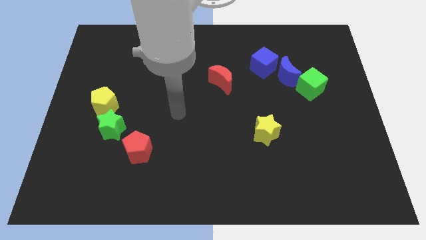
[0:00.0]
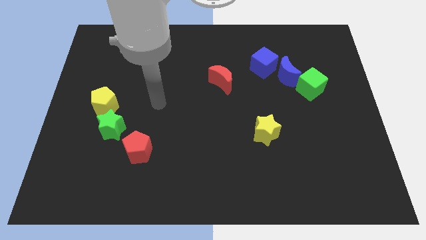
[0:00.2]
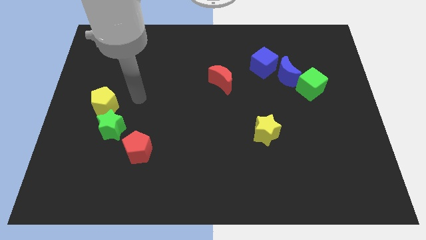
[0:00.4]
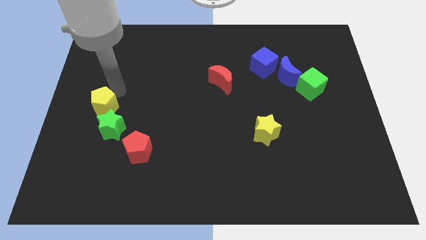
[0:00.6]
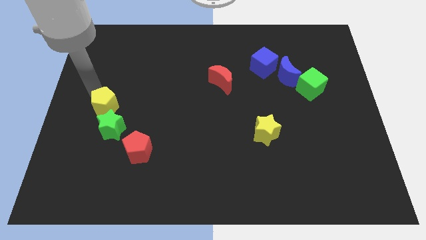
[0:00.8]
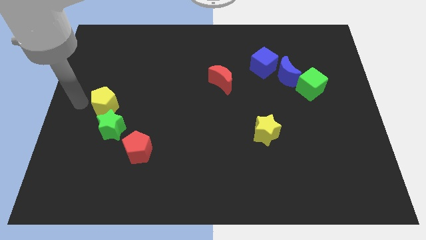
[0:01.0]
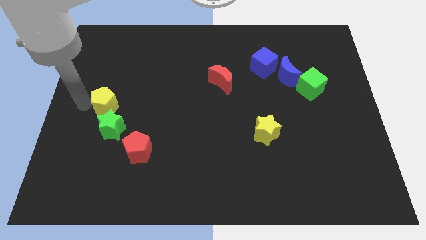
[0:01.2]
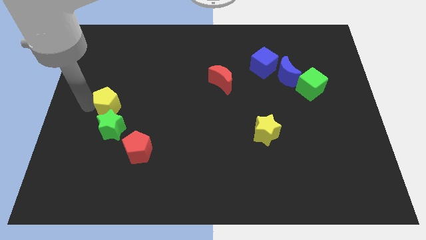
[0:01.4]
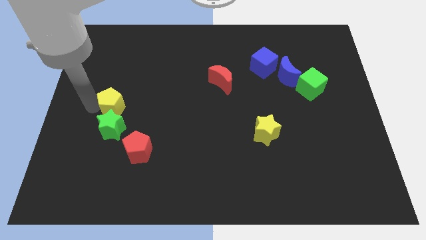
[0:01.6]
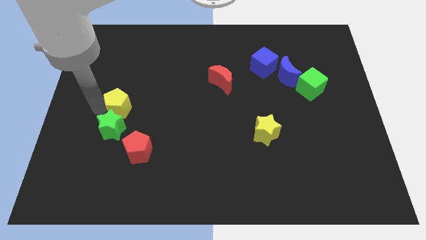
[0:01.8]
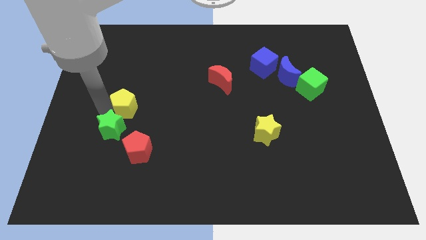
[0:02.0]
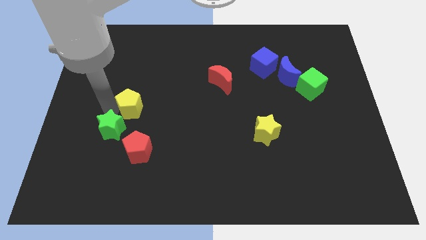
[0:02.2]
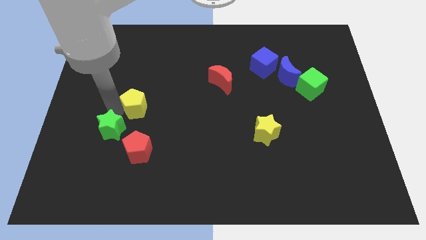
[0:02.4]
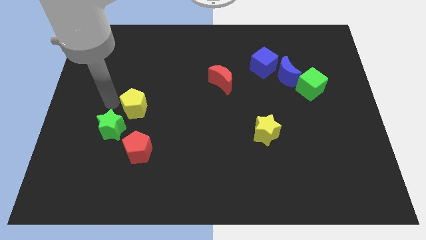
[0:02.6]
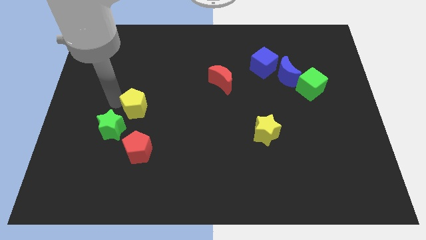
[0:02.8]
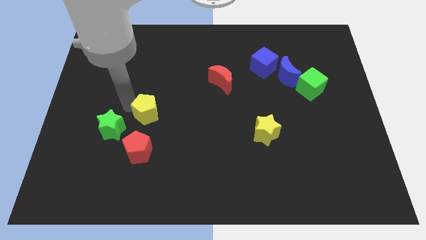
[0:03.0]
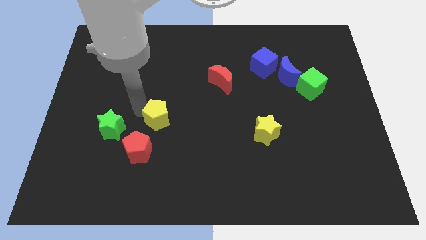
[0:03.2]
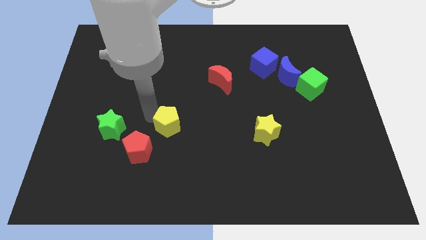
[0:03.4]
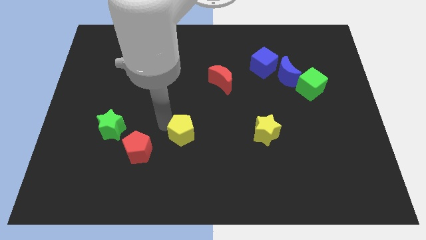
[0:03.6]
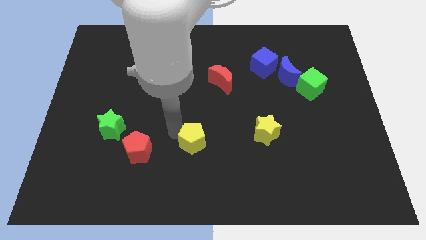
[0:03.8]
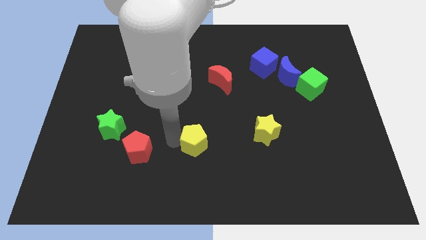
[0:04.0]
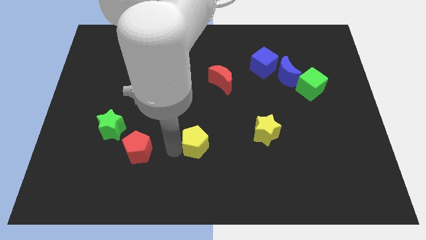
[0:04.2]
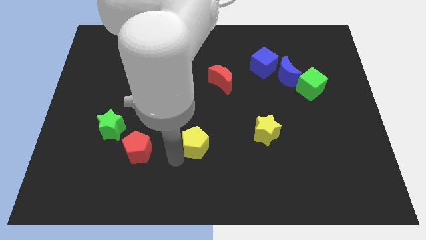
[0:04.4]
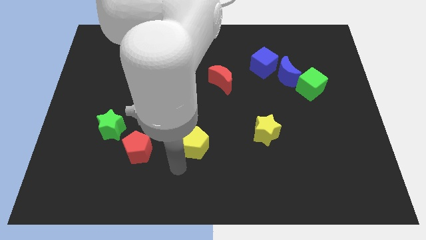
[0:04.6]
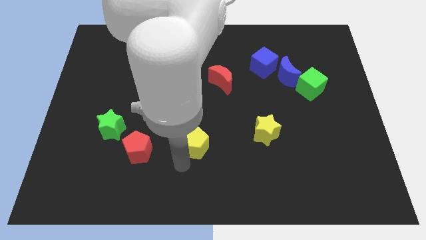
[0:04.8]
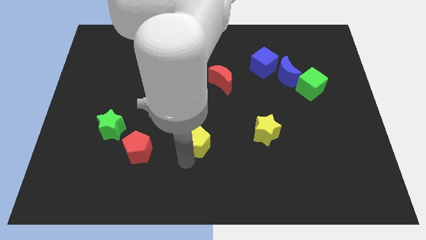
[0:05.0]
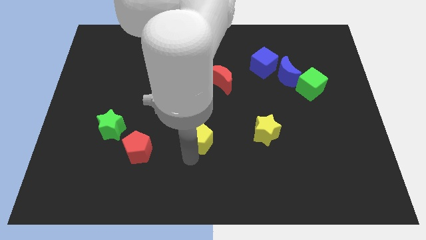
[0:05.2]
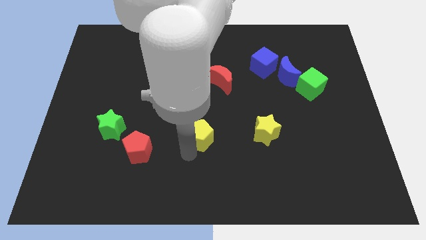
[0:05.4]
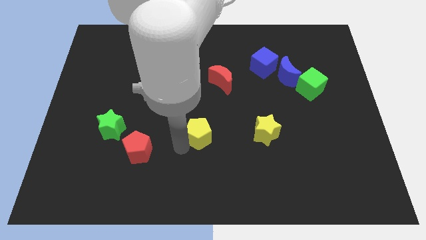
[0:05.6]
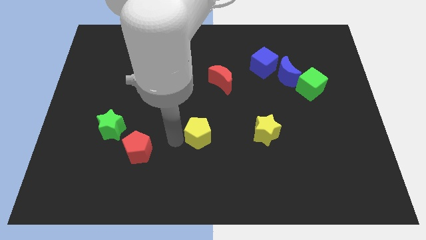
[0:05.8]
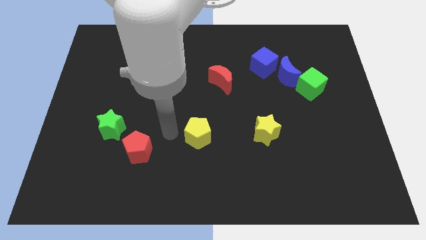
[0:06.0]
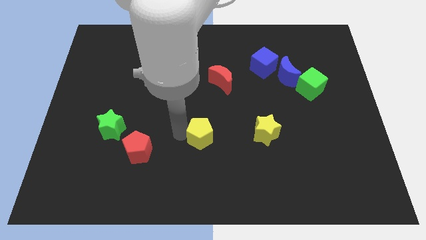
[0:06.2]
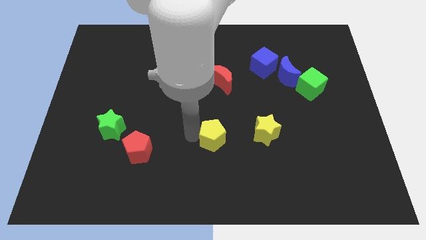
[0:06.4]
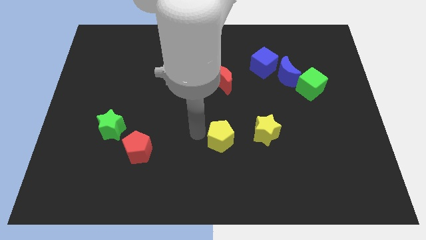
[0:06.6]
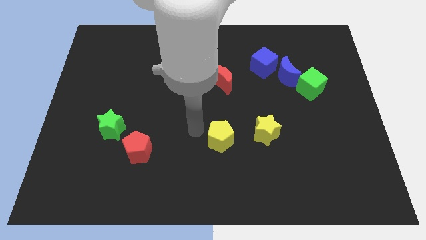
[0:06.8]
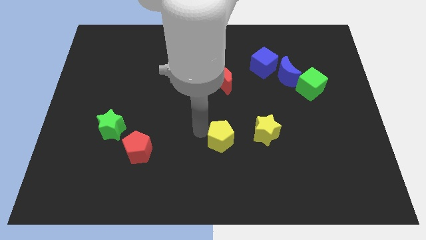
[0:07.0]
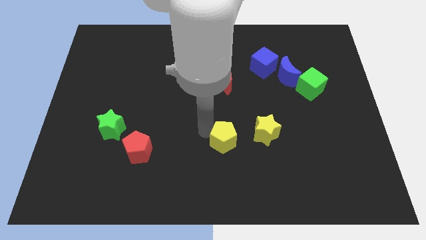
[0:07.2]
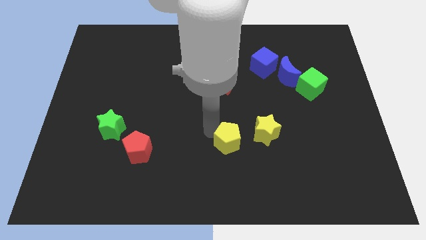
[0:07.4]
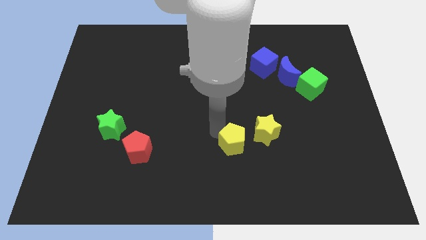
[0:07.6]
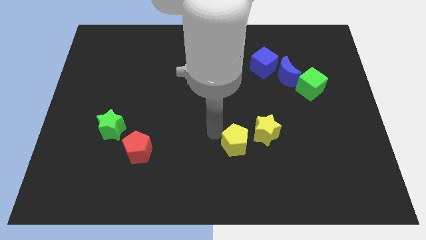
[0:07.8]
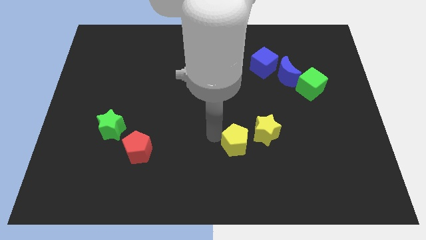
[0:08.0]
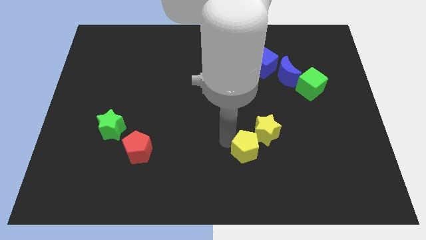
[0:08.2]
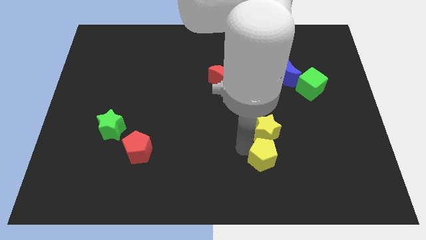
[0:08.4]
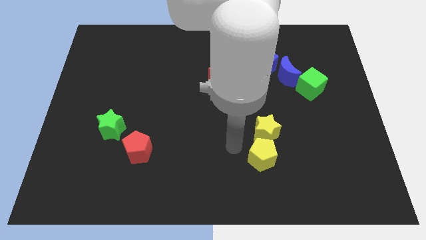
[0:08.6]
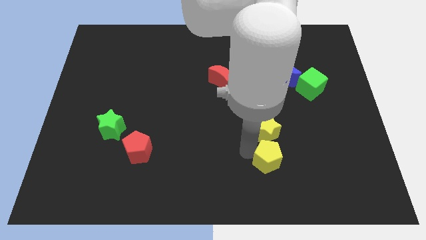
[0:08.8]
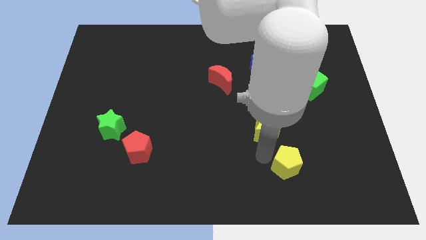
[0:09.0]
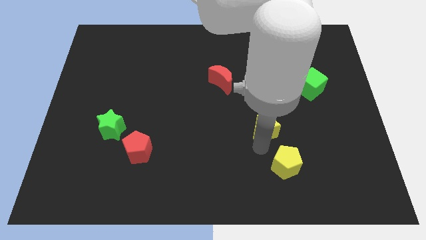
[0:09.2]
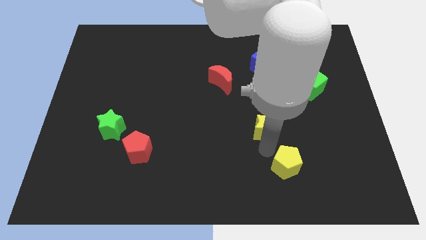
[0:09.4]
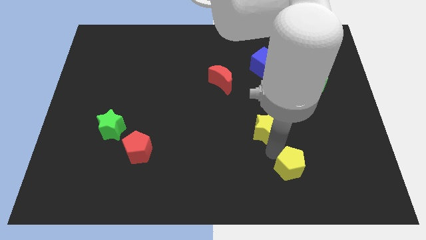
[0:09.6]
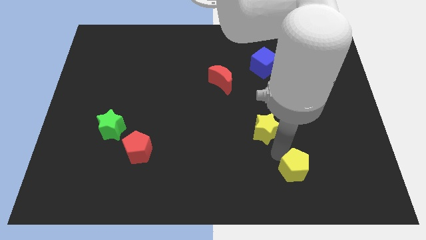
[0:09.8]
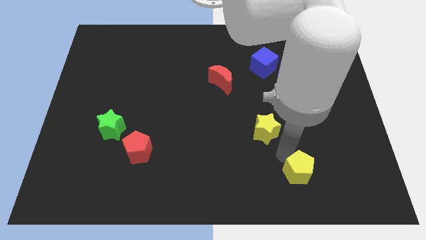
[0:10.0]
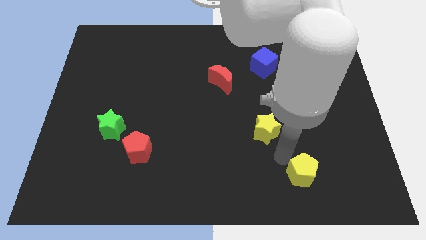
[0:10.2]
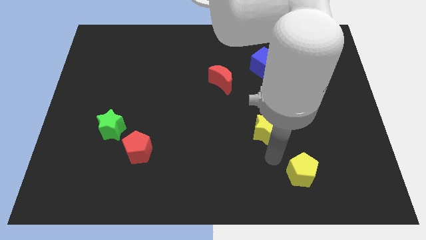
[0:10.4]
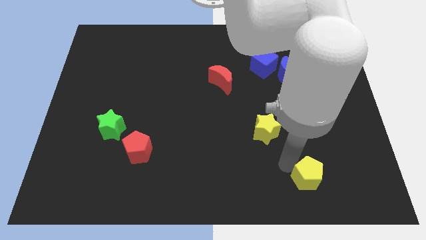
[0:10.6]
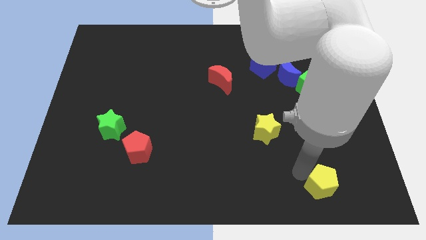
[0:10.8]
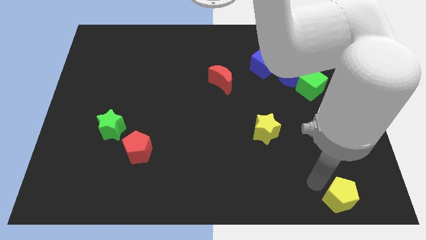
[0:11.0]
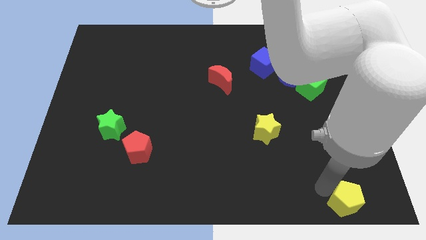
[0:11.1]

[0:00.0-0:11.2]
slide the yellow pentagon to the lower right corner

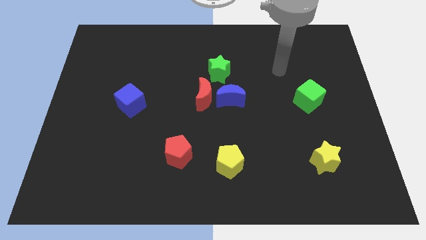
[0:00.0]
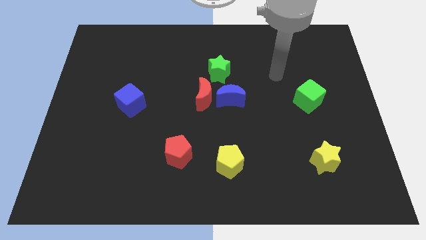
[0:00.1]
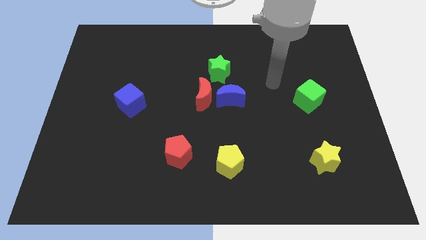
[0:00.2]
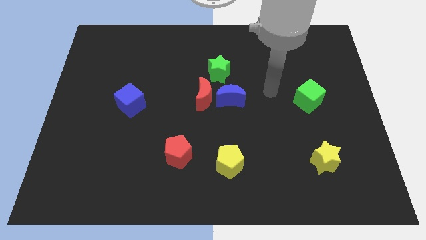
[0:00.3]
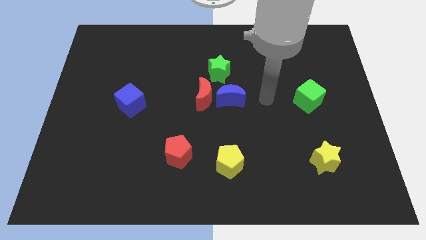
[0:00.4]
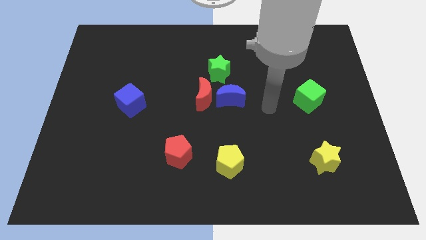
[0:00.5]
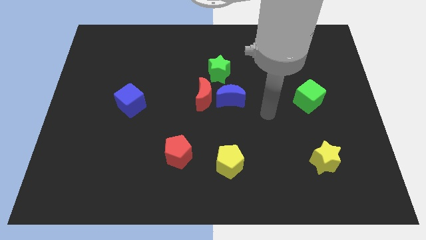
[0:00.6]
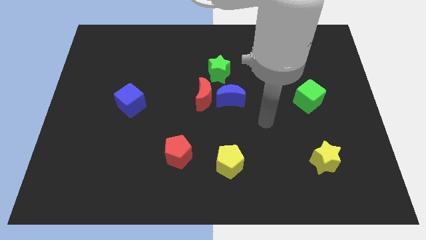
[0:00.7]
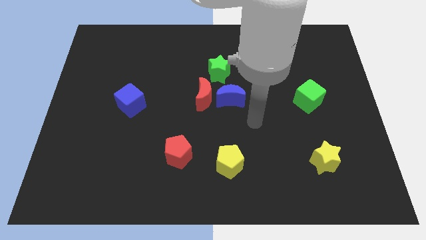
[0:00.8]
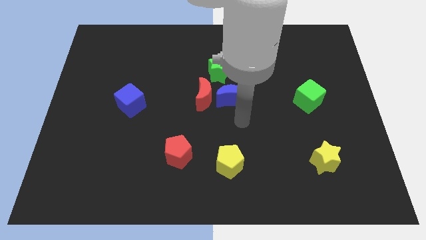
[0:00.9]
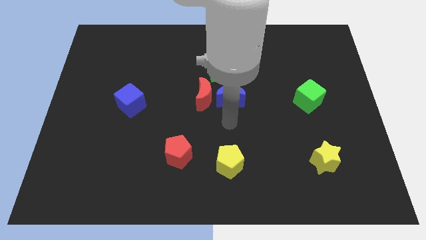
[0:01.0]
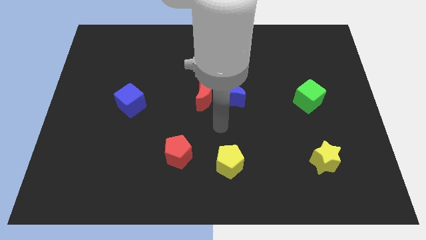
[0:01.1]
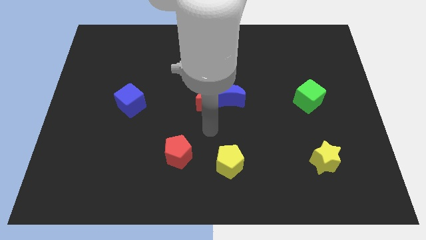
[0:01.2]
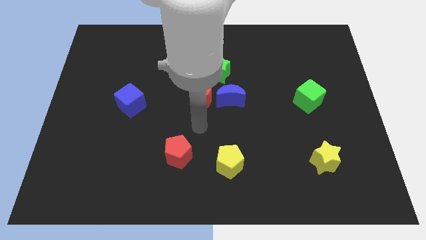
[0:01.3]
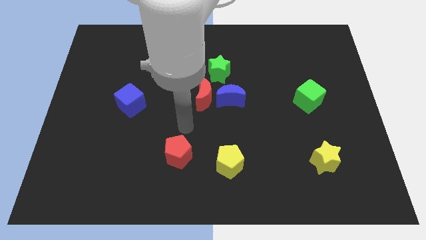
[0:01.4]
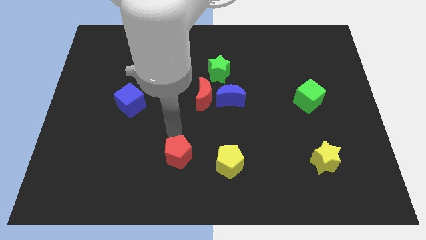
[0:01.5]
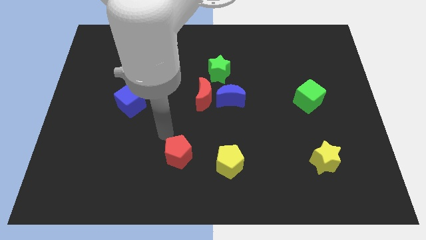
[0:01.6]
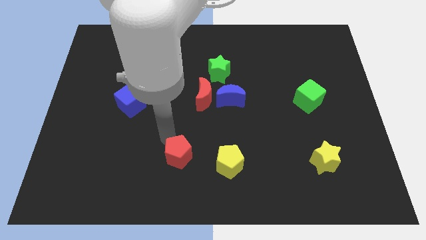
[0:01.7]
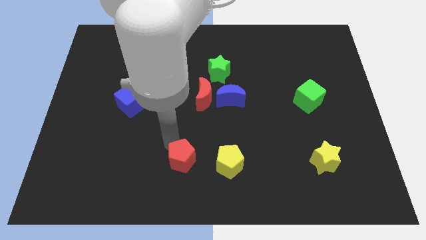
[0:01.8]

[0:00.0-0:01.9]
put the red pentagon to the bottom side
